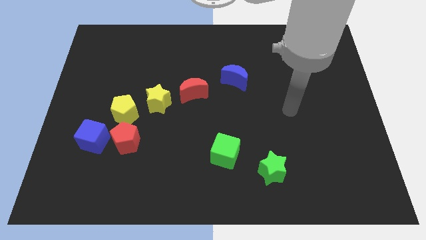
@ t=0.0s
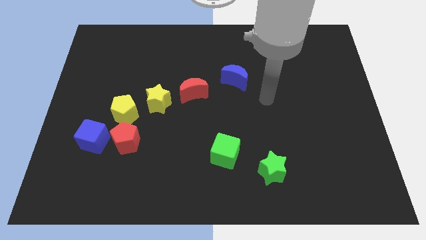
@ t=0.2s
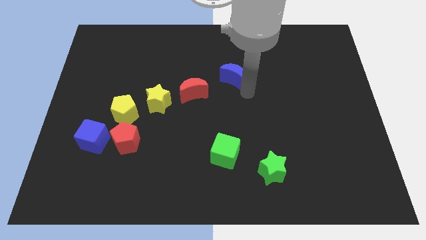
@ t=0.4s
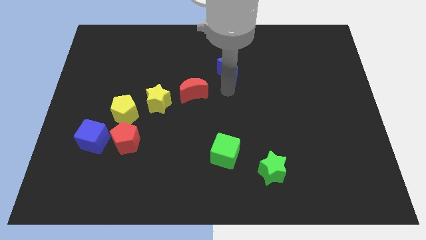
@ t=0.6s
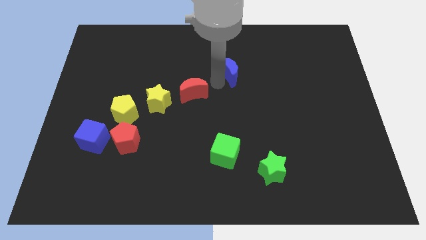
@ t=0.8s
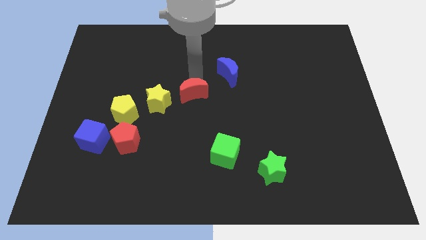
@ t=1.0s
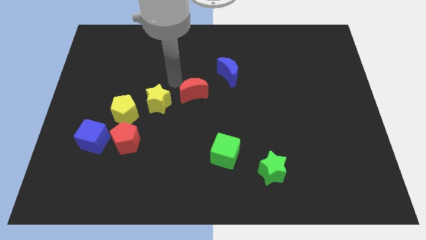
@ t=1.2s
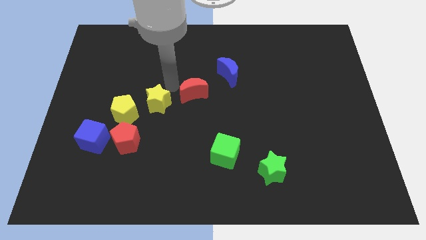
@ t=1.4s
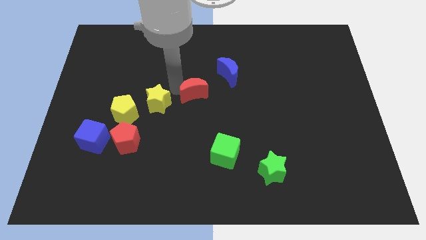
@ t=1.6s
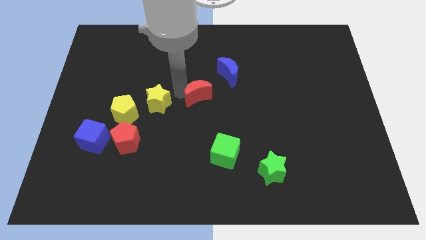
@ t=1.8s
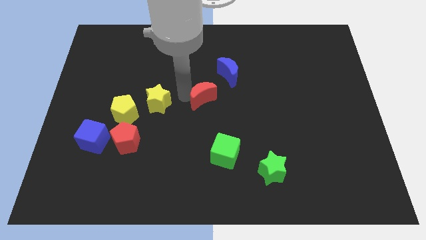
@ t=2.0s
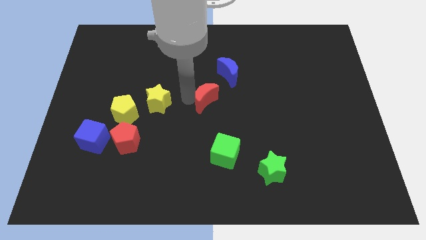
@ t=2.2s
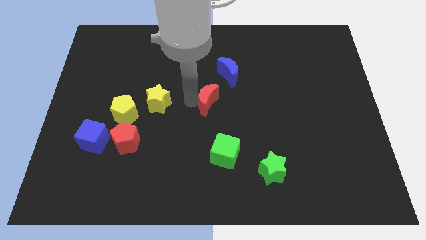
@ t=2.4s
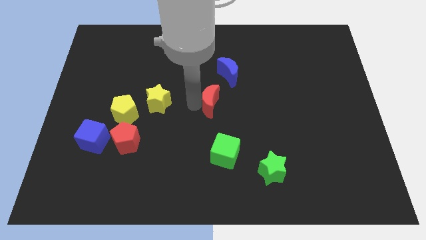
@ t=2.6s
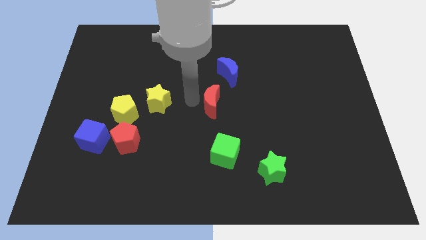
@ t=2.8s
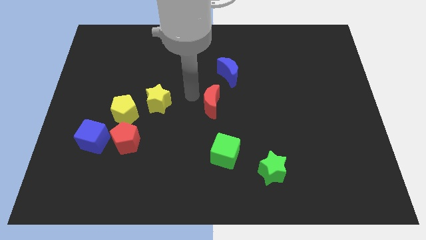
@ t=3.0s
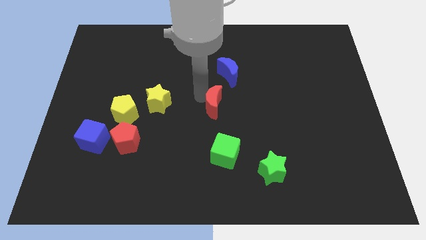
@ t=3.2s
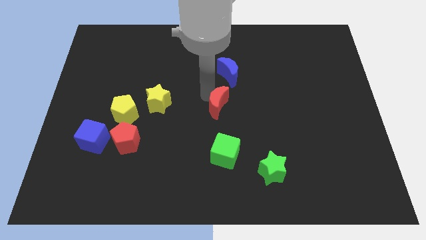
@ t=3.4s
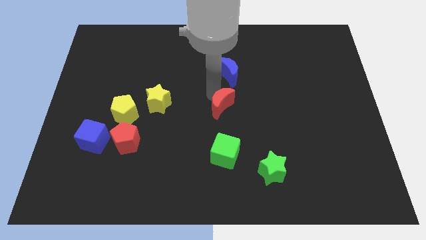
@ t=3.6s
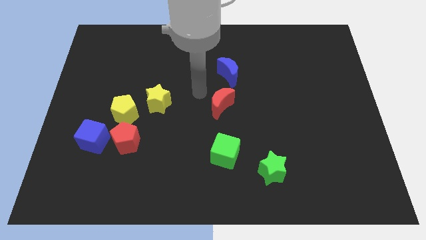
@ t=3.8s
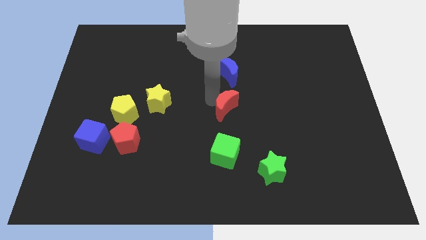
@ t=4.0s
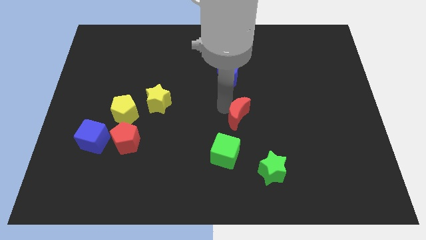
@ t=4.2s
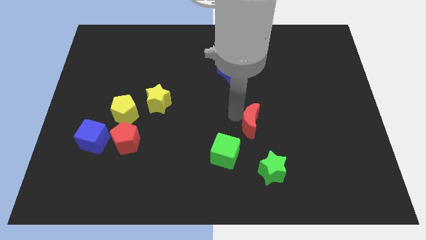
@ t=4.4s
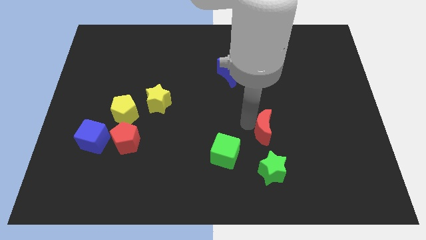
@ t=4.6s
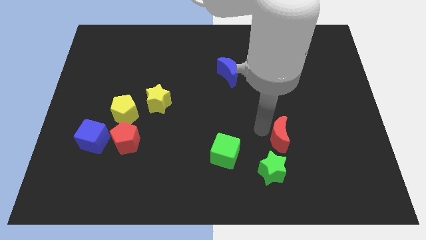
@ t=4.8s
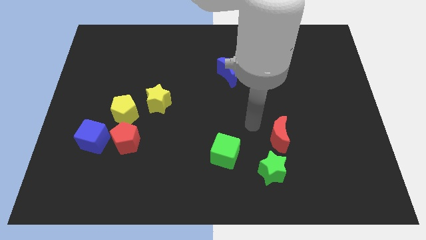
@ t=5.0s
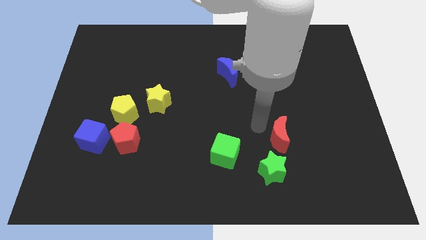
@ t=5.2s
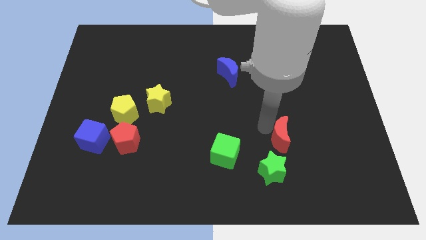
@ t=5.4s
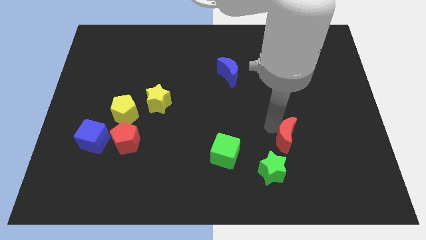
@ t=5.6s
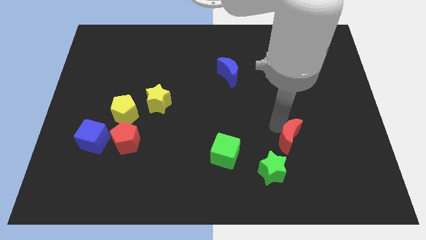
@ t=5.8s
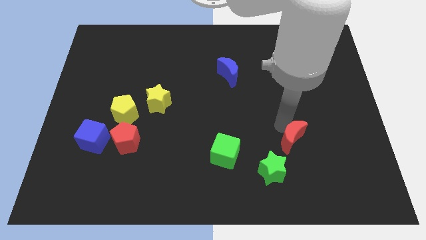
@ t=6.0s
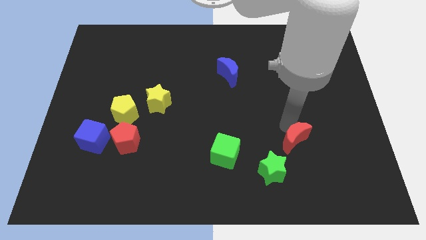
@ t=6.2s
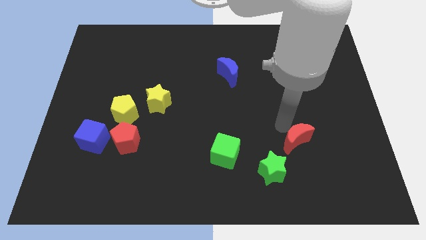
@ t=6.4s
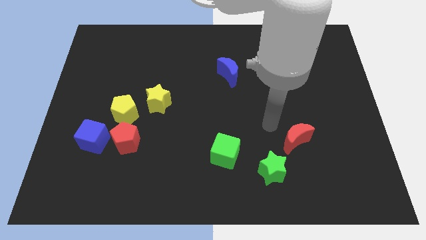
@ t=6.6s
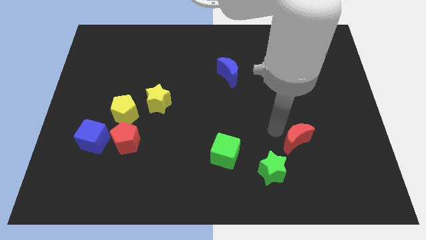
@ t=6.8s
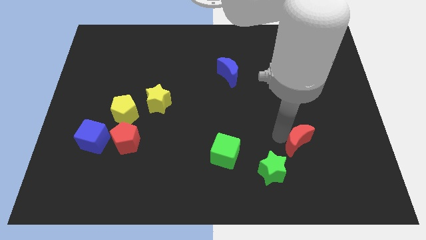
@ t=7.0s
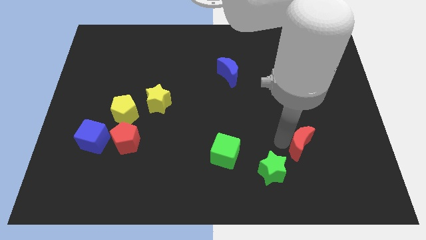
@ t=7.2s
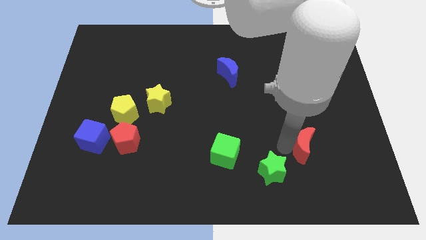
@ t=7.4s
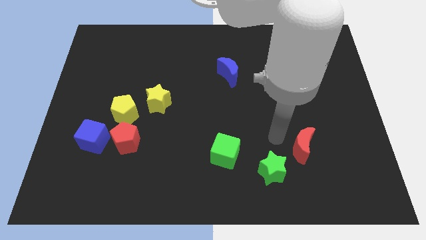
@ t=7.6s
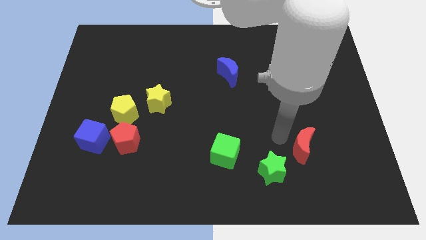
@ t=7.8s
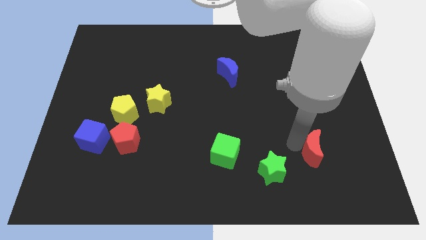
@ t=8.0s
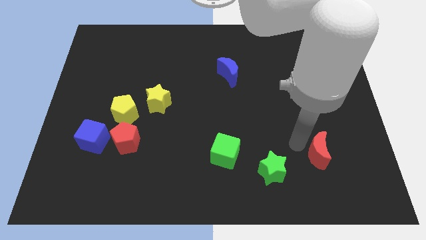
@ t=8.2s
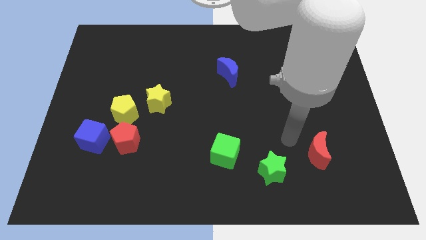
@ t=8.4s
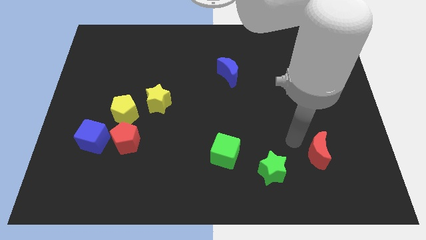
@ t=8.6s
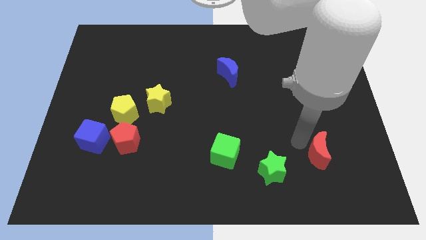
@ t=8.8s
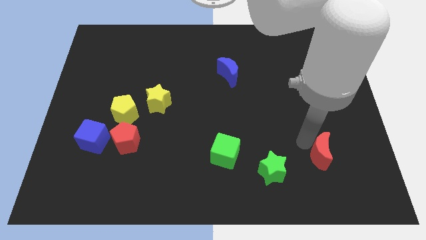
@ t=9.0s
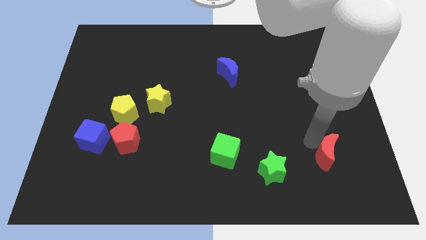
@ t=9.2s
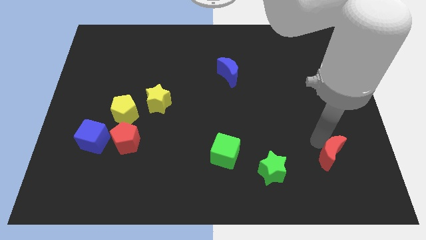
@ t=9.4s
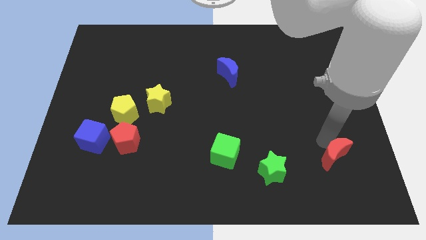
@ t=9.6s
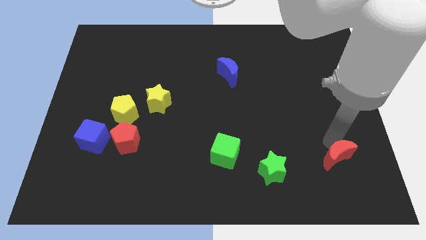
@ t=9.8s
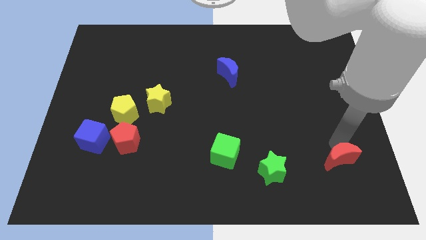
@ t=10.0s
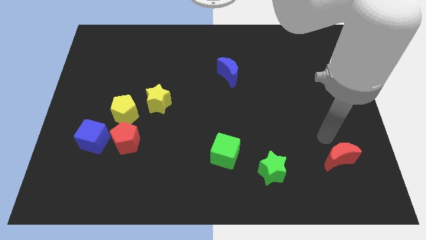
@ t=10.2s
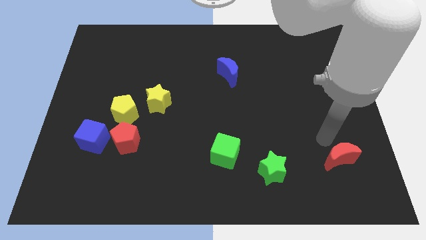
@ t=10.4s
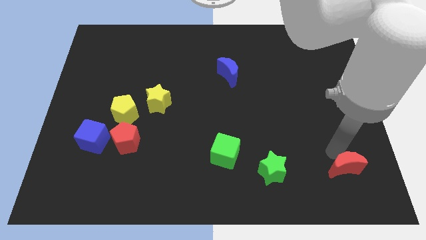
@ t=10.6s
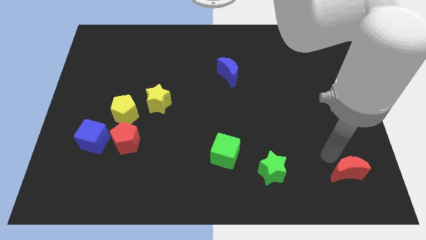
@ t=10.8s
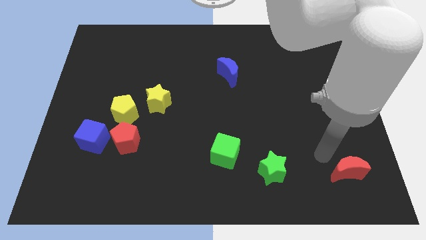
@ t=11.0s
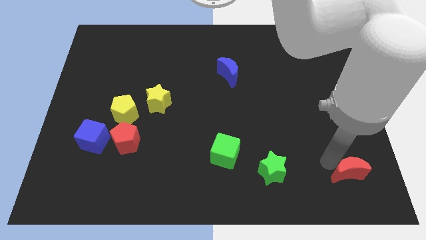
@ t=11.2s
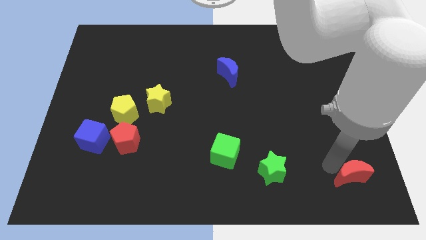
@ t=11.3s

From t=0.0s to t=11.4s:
slide the red moon to the bottom right of the board

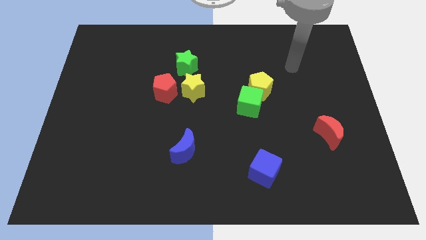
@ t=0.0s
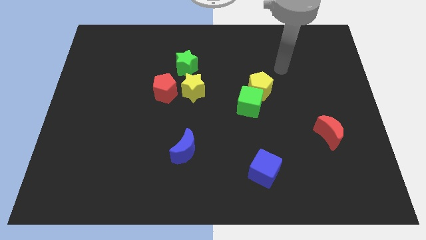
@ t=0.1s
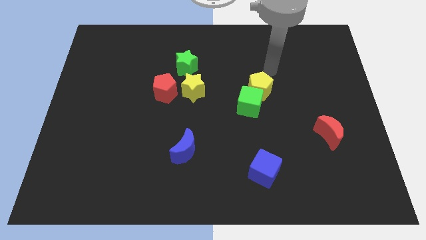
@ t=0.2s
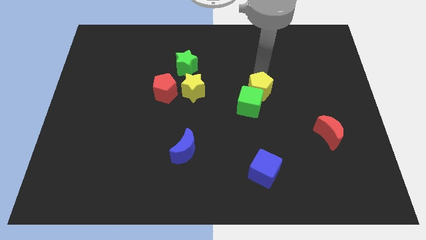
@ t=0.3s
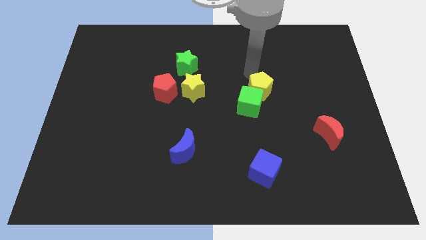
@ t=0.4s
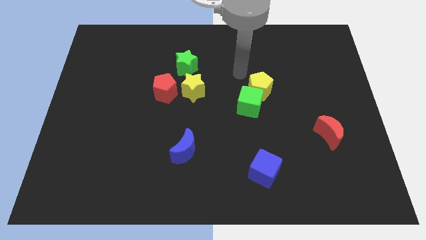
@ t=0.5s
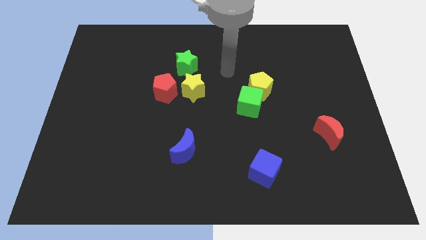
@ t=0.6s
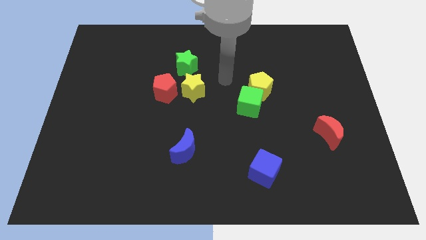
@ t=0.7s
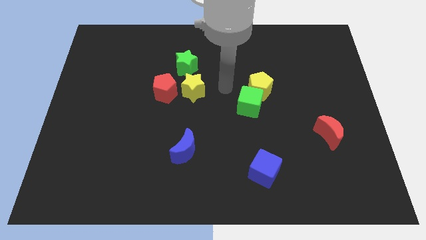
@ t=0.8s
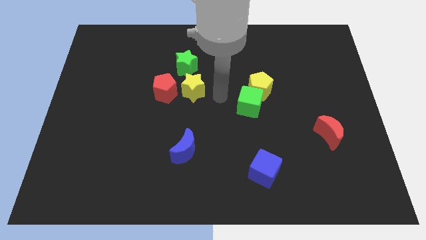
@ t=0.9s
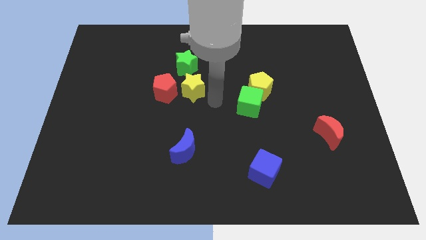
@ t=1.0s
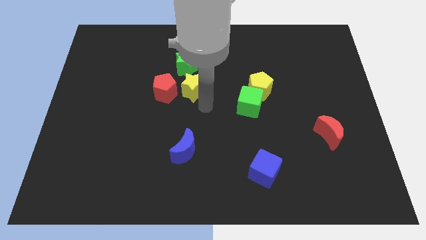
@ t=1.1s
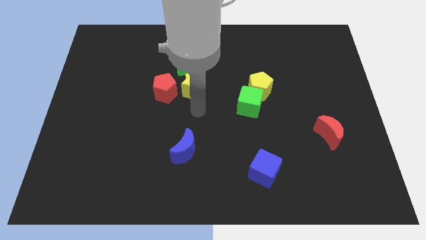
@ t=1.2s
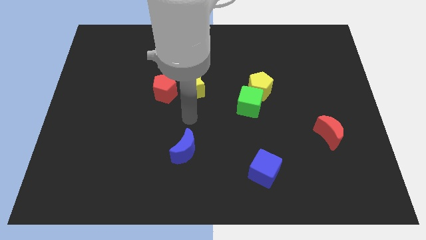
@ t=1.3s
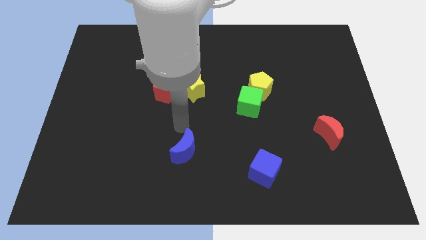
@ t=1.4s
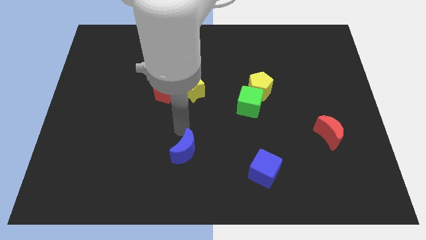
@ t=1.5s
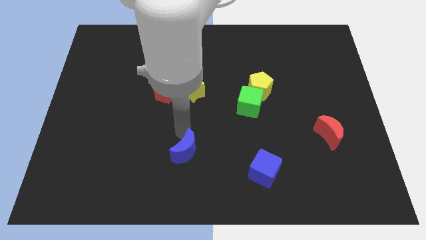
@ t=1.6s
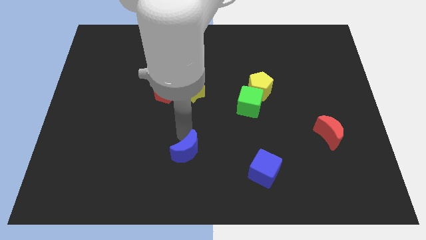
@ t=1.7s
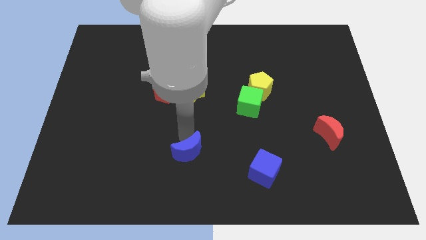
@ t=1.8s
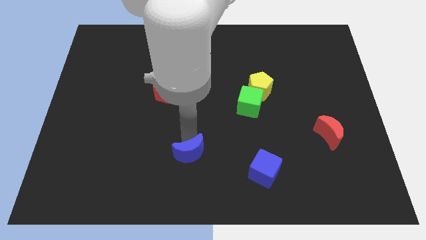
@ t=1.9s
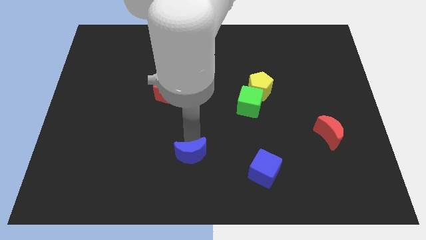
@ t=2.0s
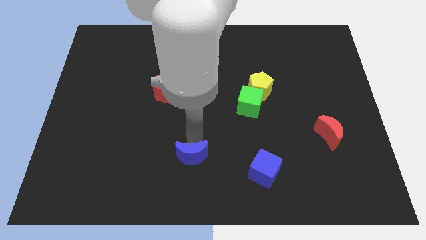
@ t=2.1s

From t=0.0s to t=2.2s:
slide the blue moon to the bottom
